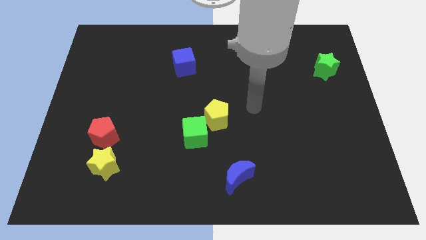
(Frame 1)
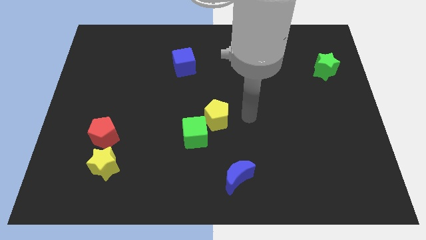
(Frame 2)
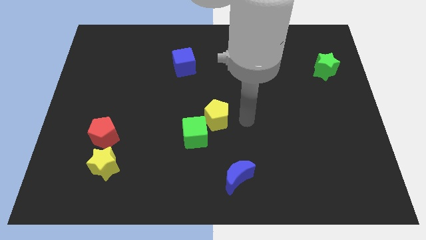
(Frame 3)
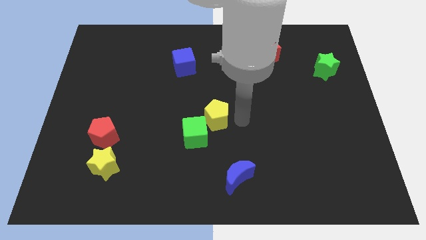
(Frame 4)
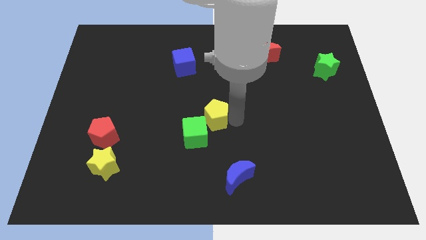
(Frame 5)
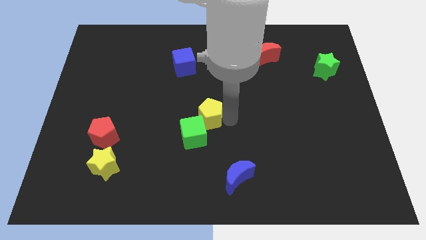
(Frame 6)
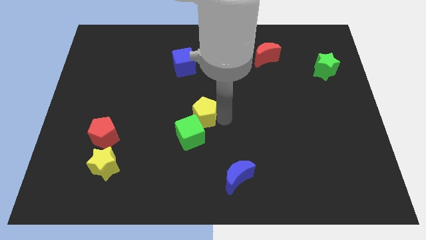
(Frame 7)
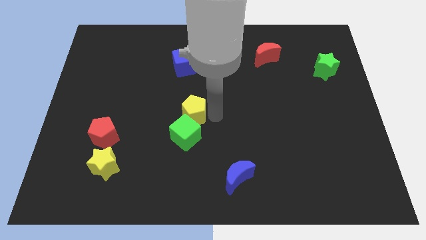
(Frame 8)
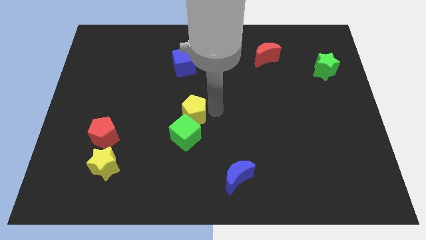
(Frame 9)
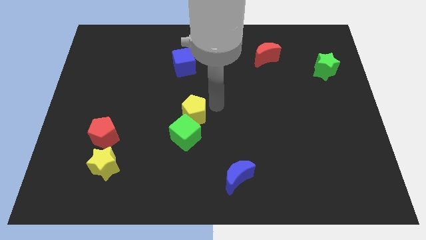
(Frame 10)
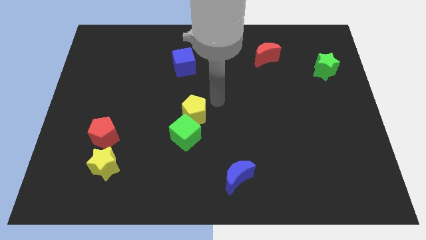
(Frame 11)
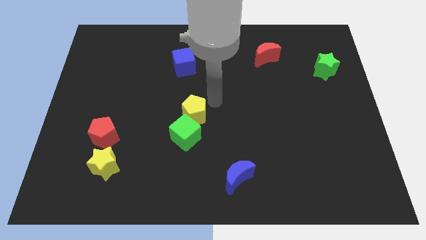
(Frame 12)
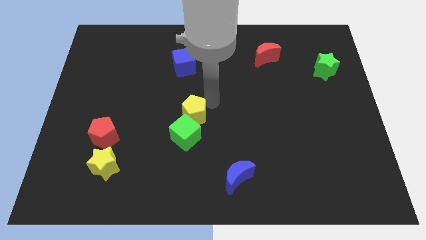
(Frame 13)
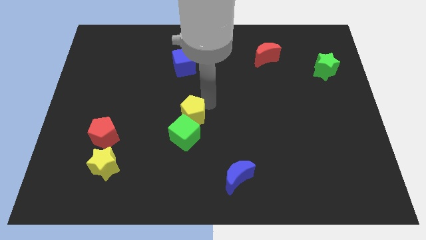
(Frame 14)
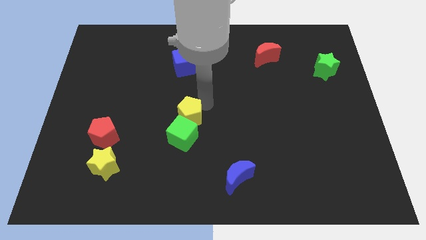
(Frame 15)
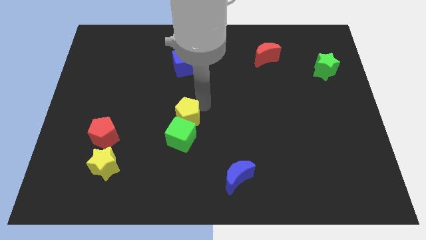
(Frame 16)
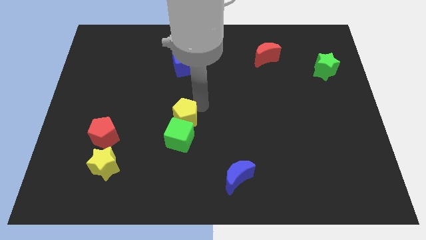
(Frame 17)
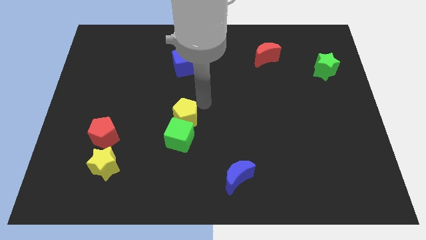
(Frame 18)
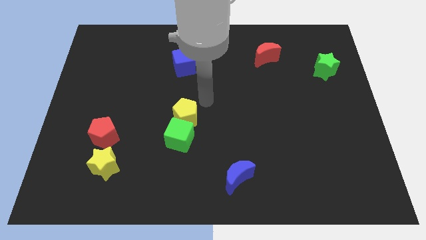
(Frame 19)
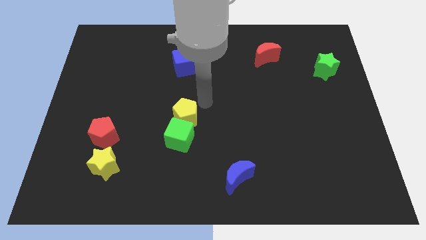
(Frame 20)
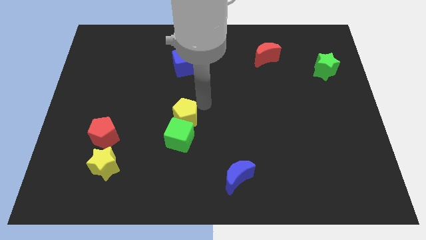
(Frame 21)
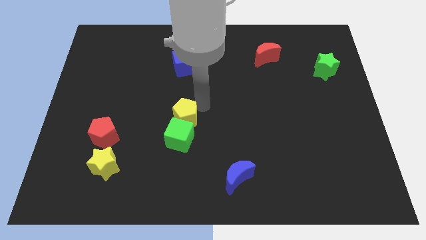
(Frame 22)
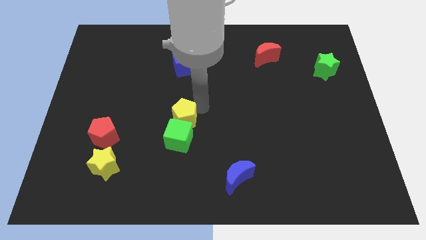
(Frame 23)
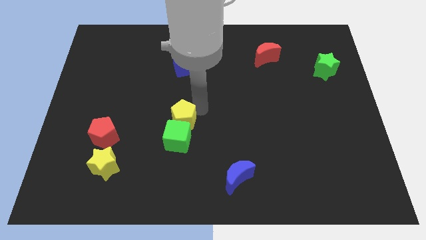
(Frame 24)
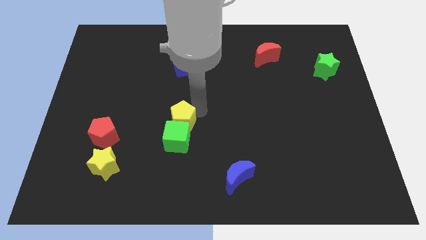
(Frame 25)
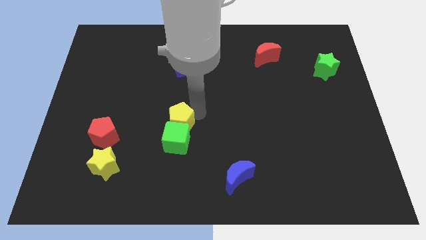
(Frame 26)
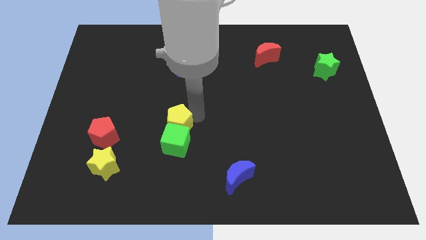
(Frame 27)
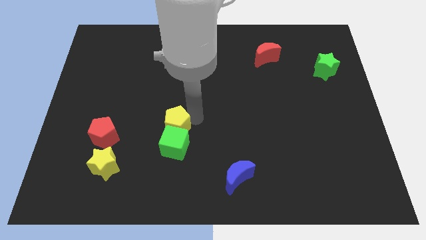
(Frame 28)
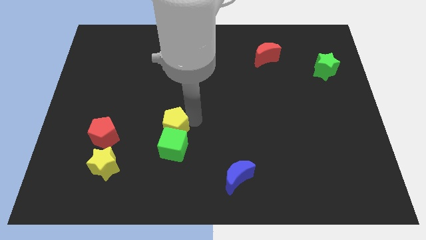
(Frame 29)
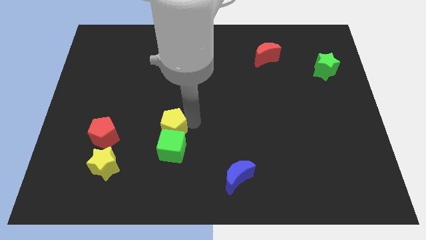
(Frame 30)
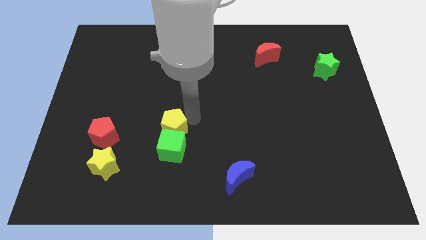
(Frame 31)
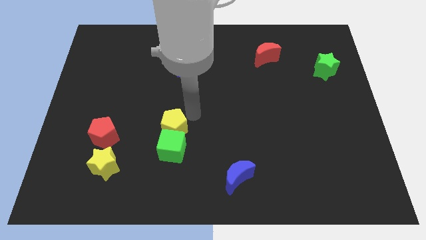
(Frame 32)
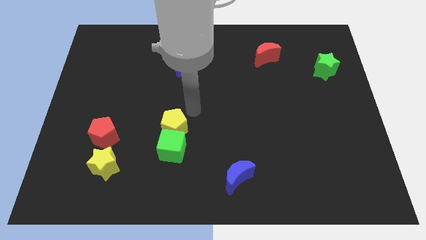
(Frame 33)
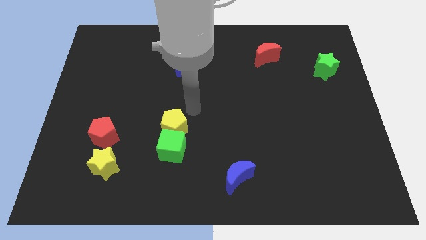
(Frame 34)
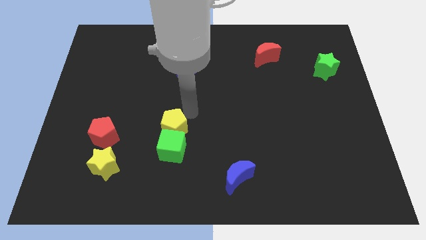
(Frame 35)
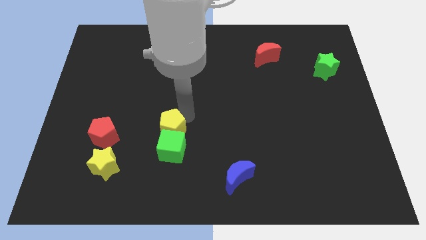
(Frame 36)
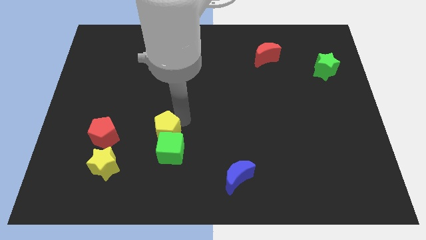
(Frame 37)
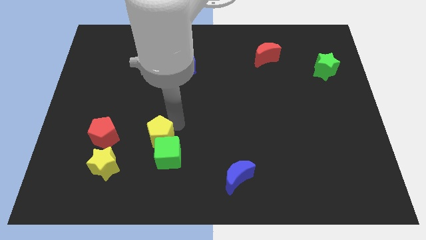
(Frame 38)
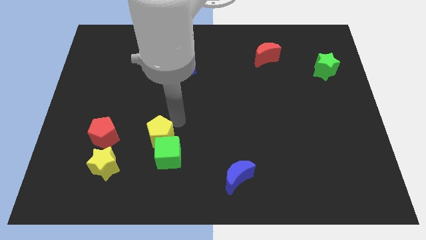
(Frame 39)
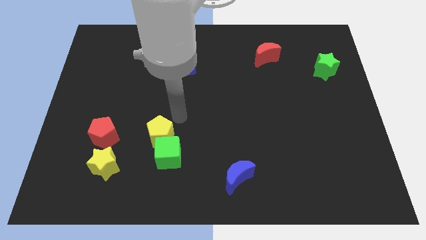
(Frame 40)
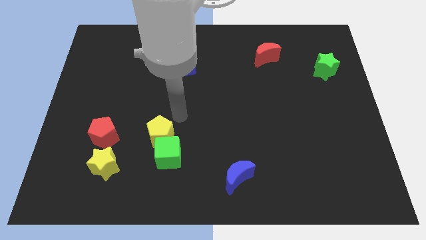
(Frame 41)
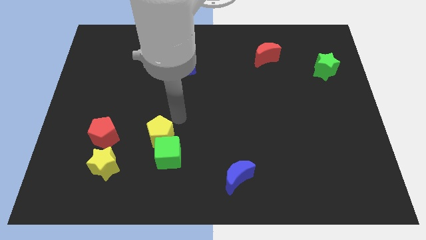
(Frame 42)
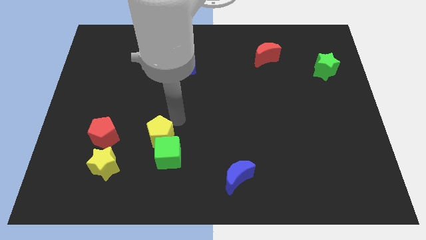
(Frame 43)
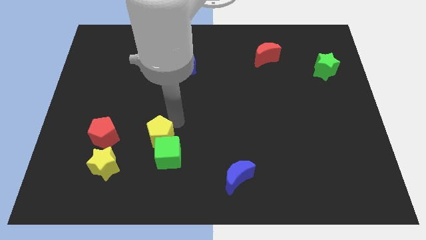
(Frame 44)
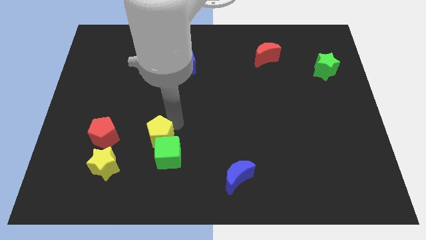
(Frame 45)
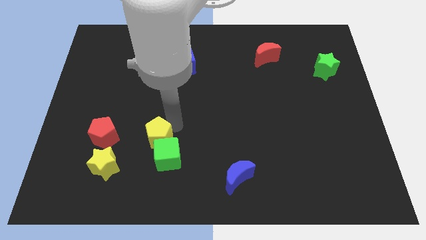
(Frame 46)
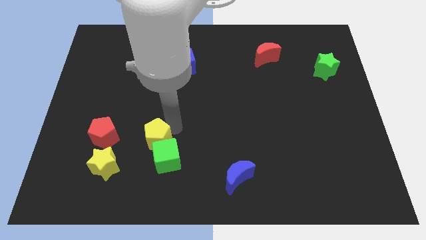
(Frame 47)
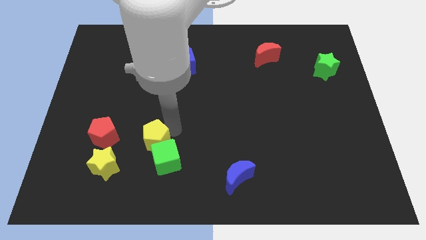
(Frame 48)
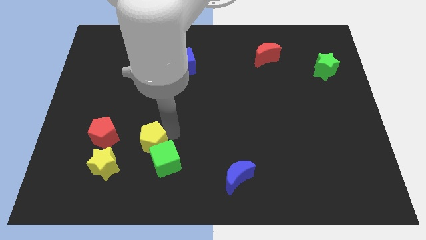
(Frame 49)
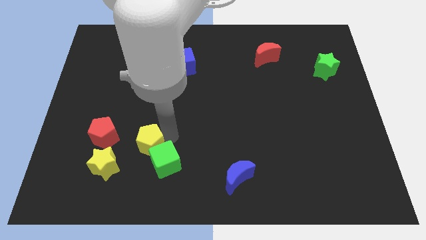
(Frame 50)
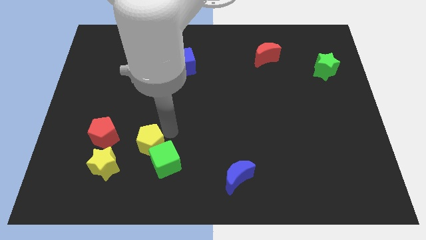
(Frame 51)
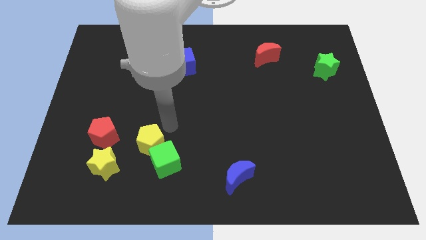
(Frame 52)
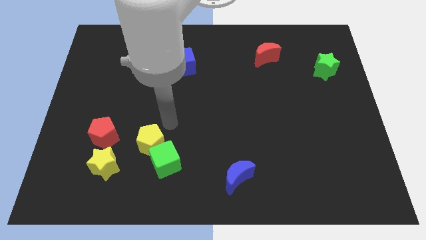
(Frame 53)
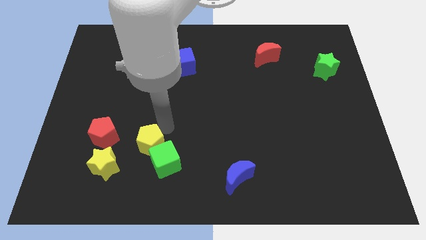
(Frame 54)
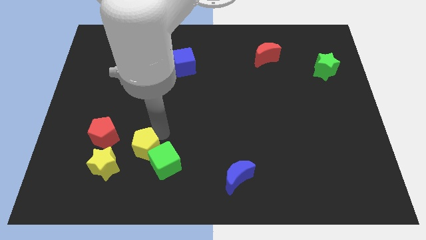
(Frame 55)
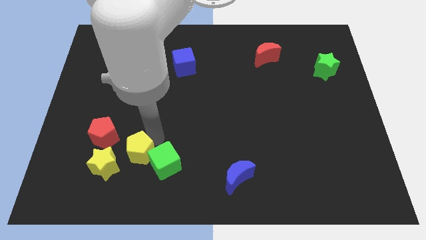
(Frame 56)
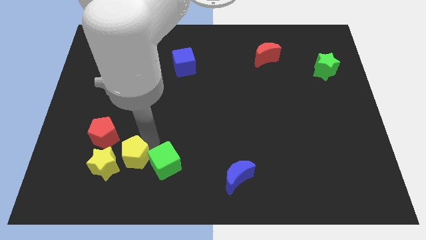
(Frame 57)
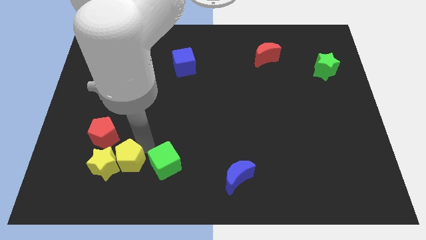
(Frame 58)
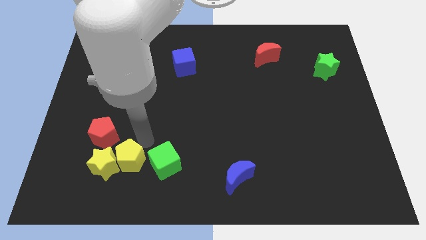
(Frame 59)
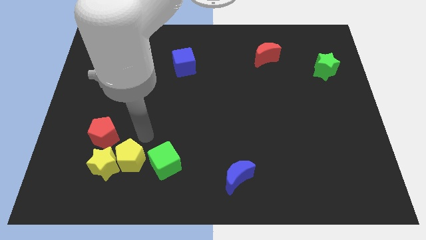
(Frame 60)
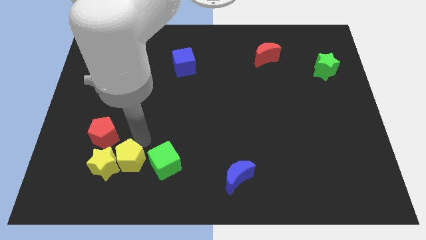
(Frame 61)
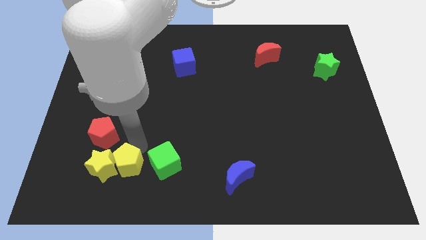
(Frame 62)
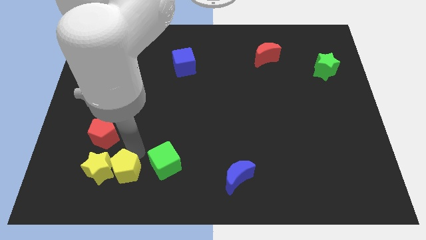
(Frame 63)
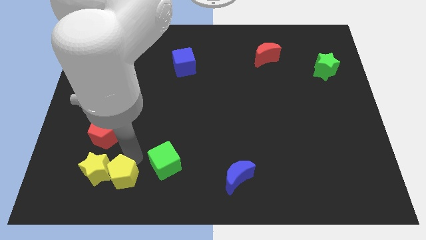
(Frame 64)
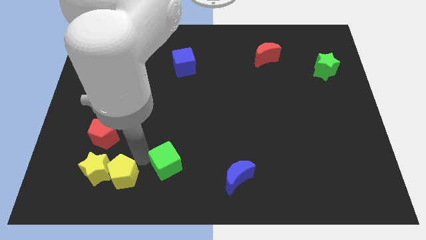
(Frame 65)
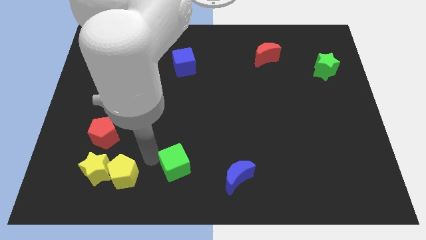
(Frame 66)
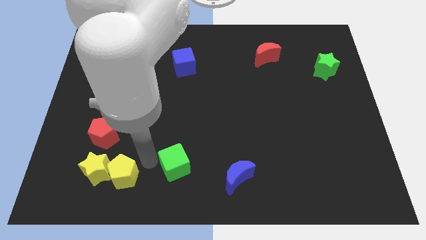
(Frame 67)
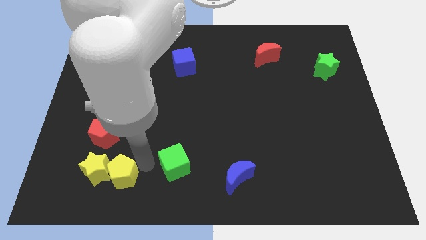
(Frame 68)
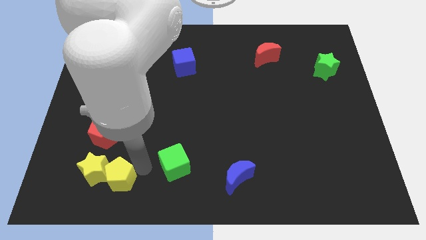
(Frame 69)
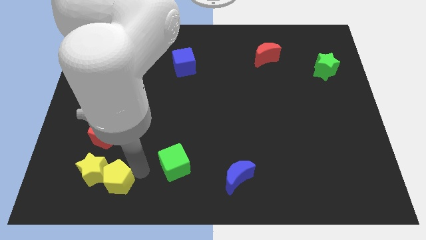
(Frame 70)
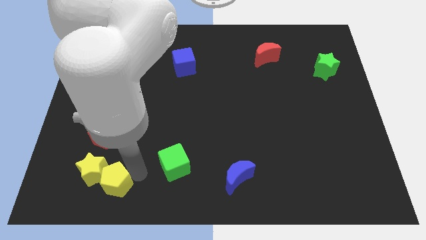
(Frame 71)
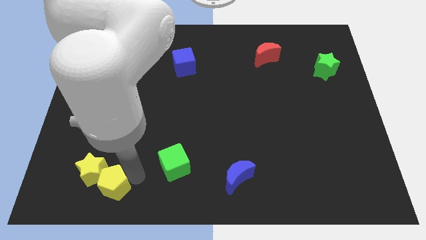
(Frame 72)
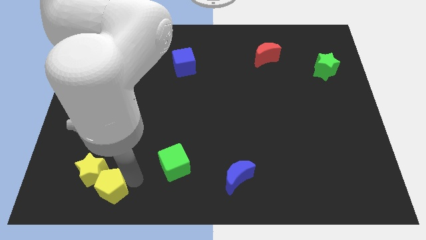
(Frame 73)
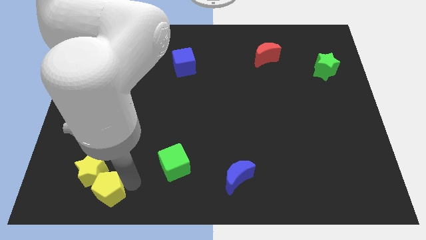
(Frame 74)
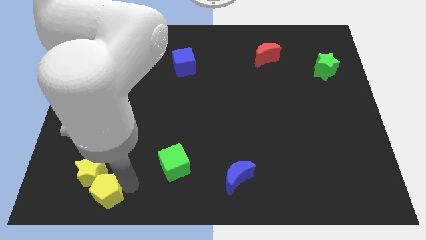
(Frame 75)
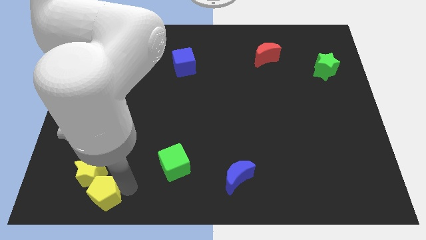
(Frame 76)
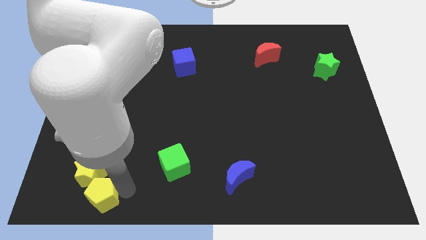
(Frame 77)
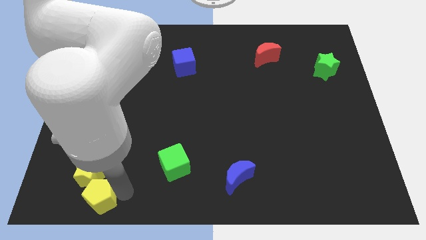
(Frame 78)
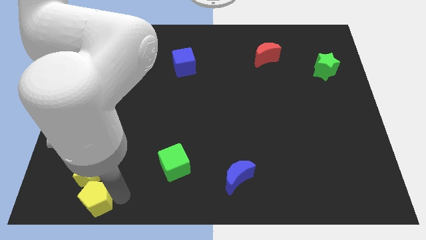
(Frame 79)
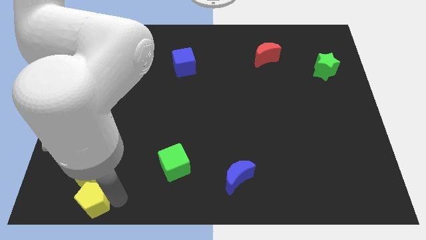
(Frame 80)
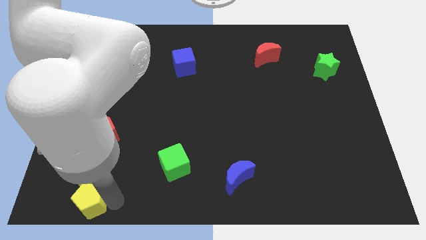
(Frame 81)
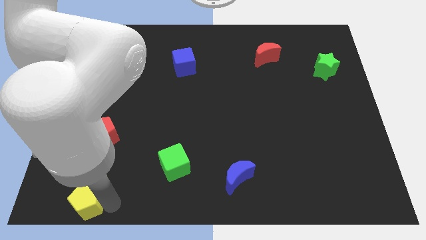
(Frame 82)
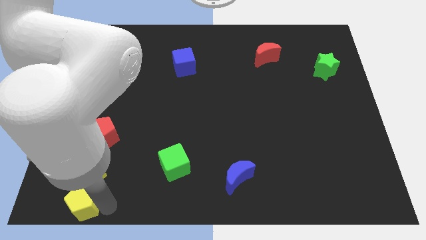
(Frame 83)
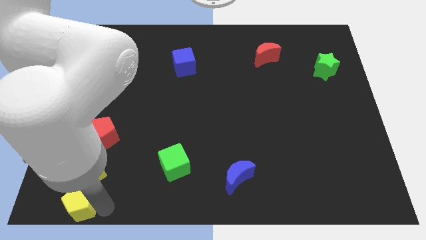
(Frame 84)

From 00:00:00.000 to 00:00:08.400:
slide the yellow pentagon to the bottom left of the board
